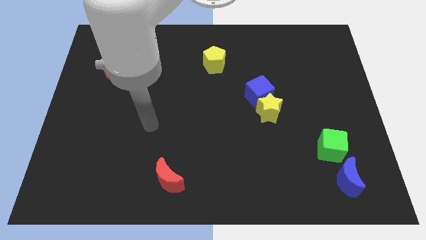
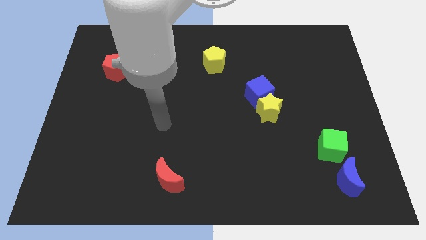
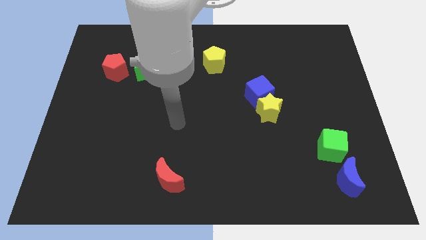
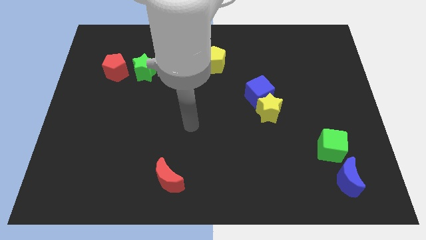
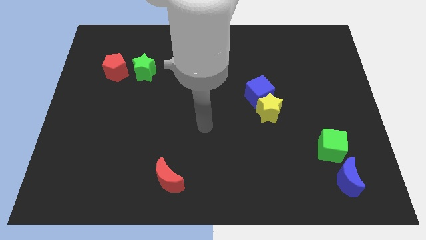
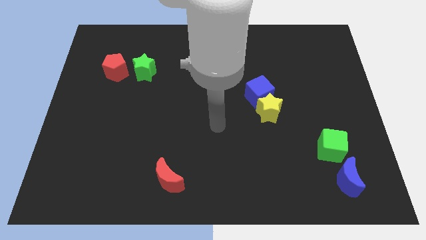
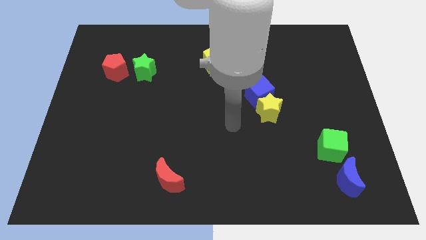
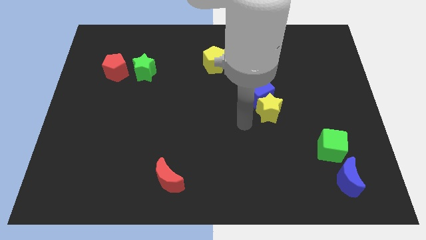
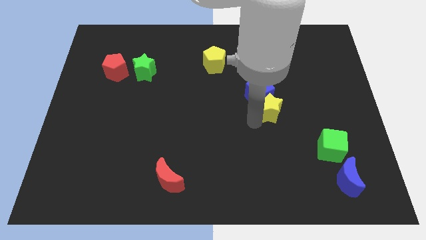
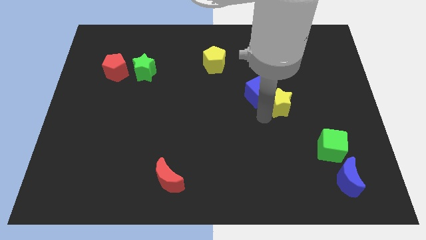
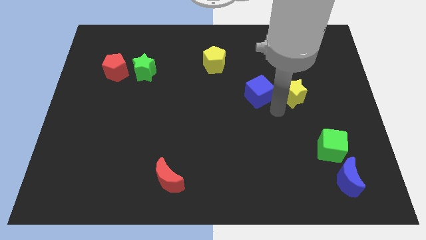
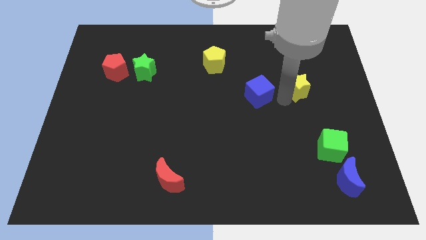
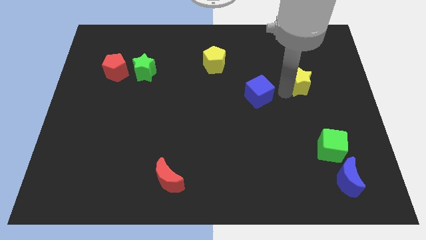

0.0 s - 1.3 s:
move the blue cube away from the yellow star

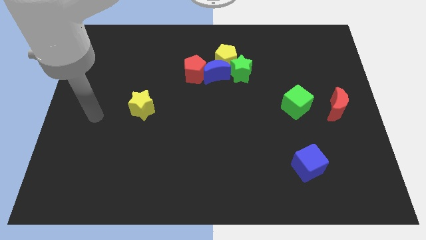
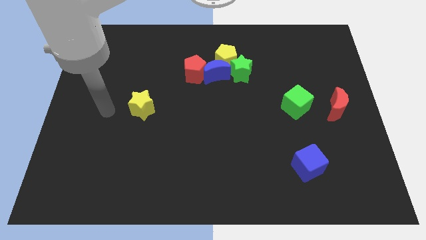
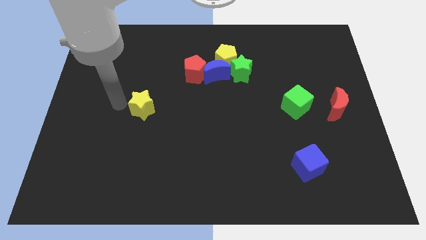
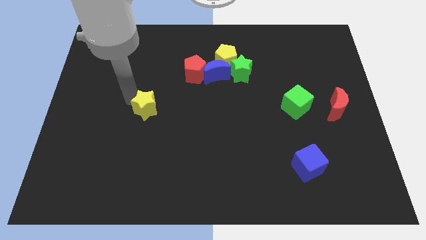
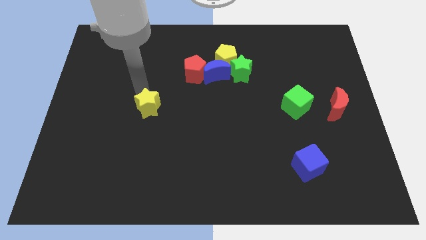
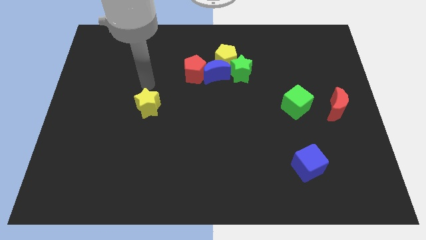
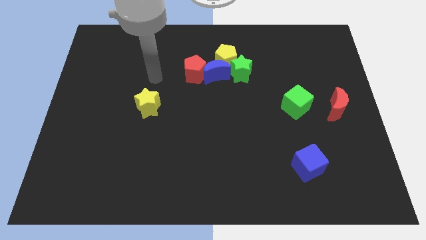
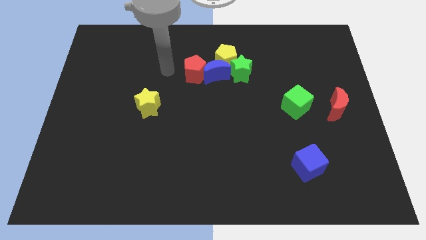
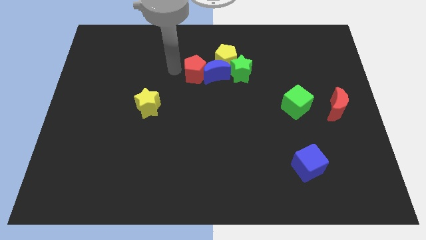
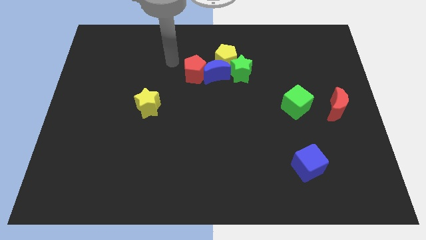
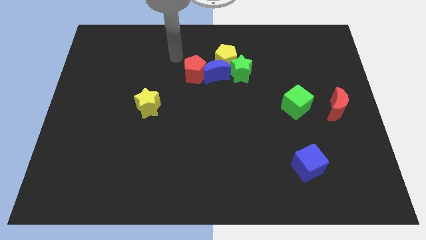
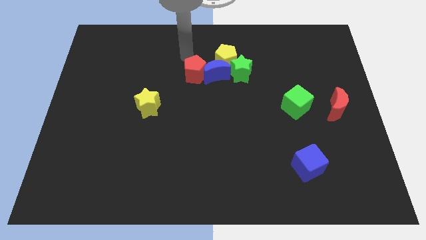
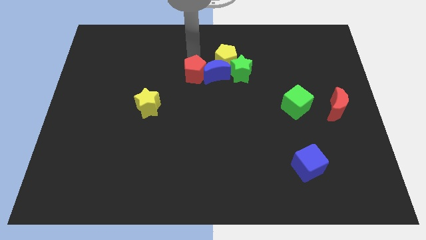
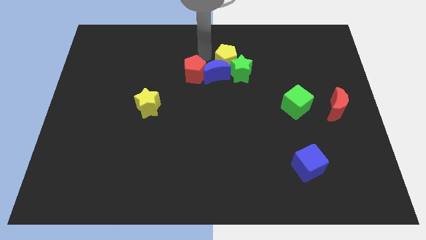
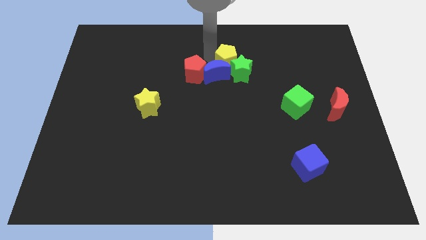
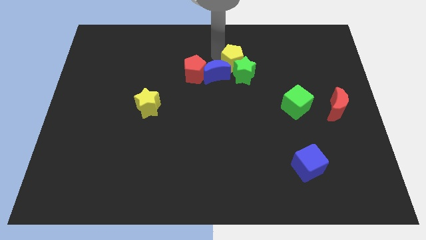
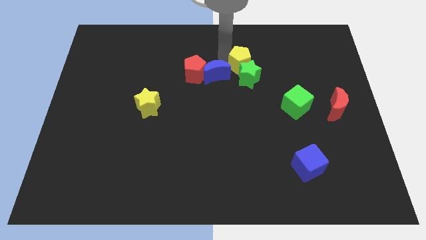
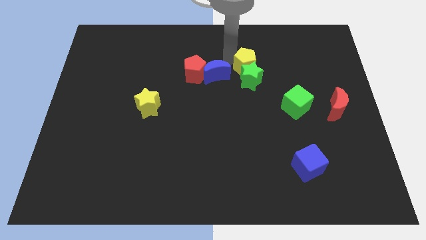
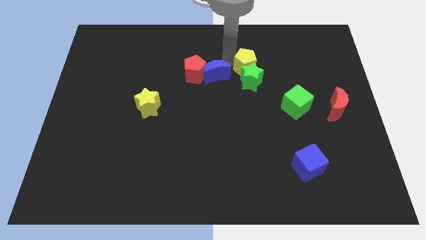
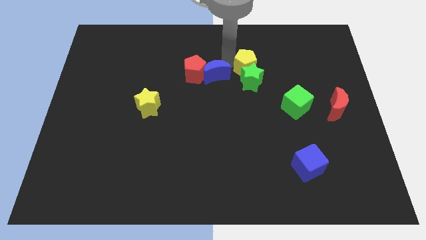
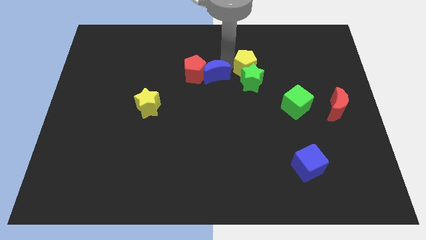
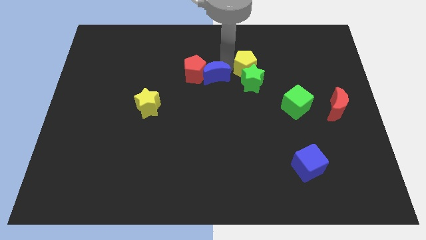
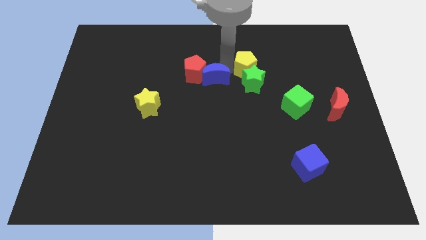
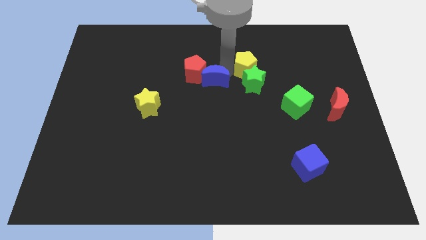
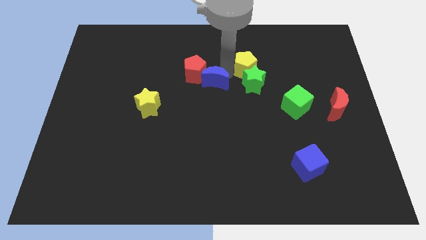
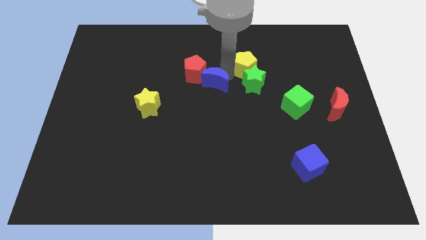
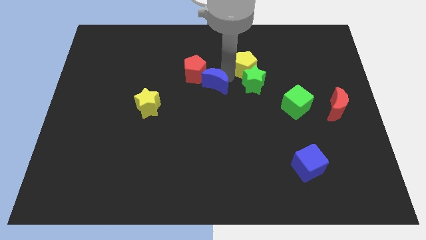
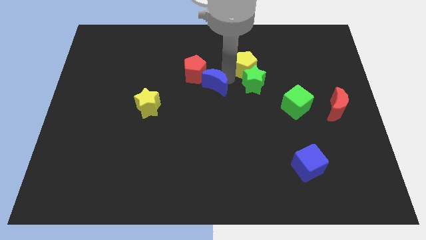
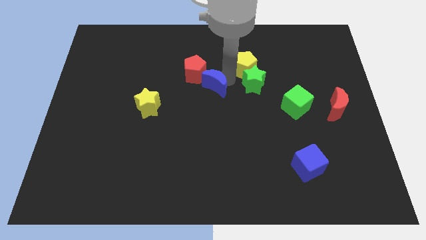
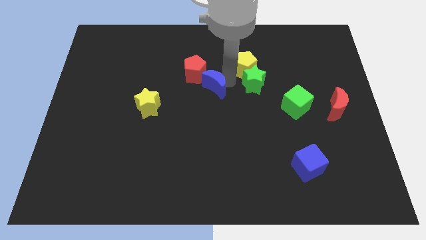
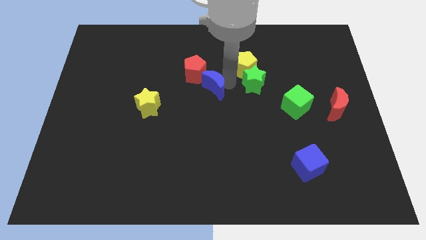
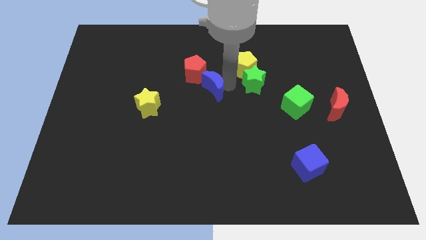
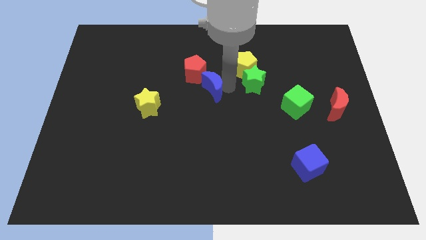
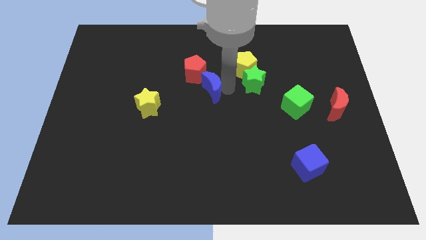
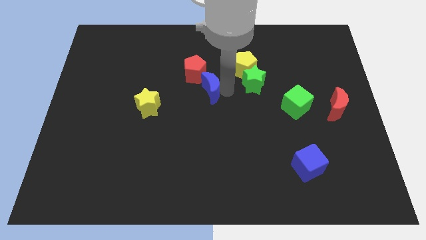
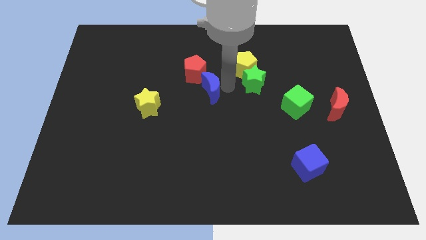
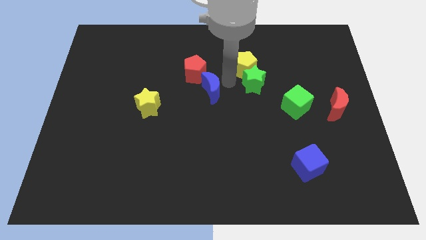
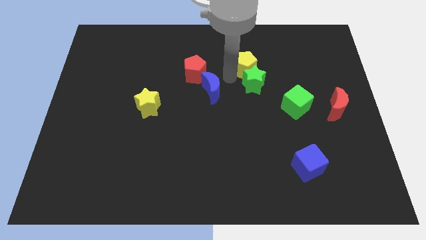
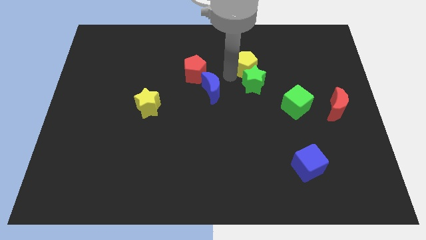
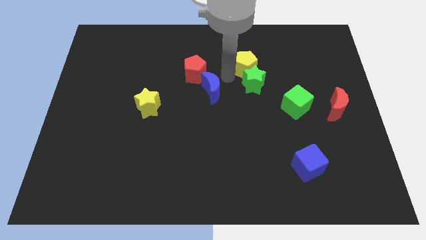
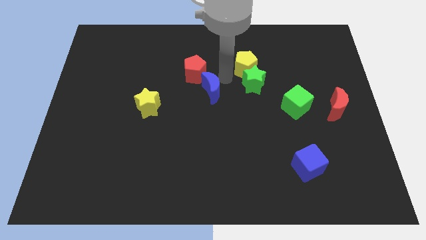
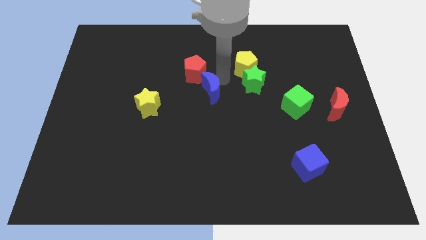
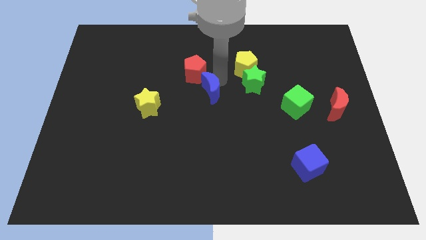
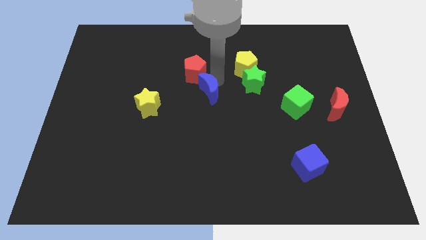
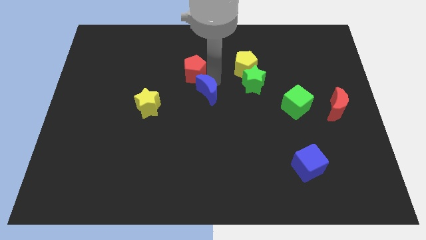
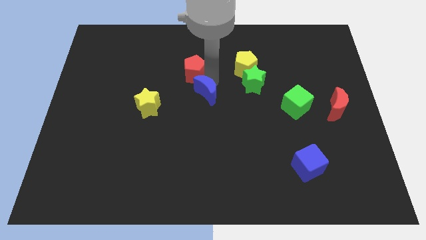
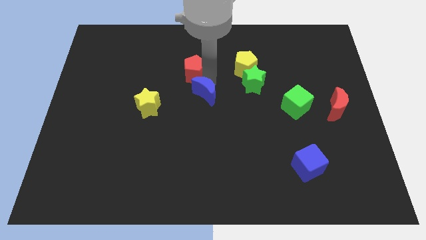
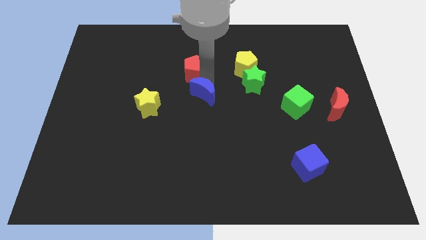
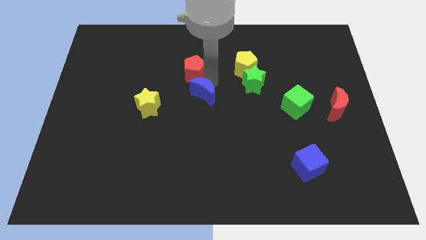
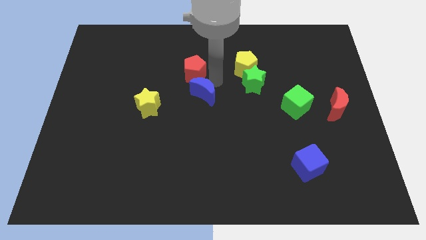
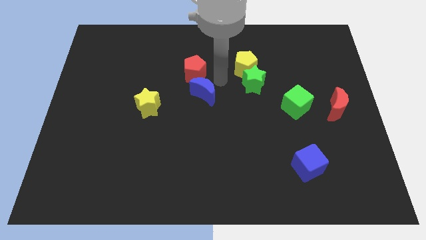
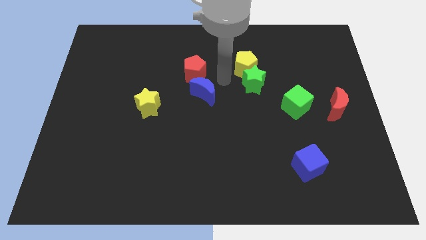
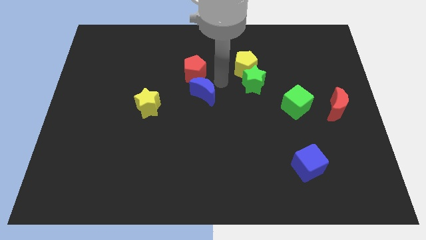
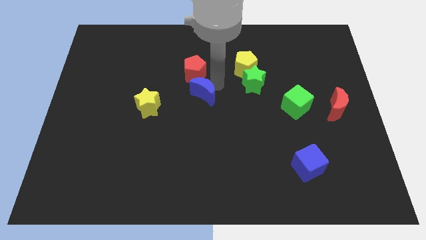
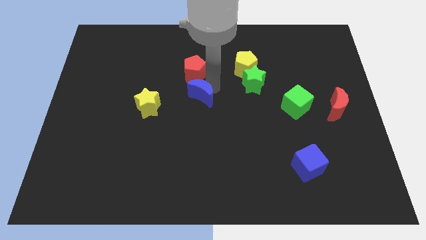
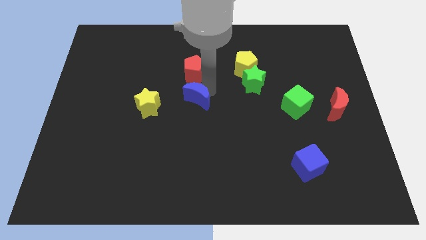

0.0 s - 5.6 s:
pull the blue moon apart from the group of blocks

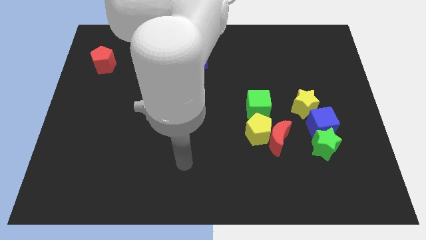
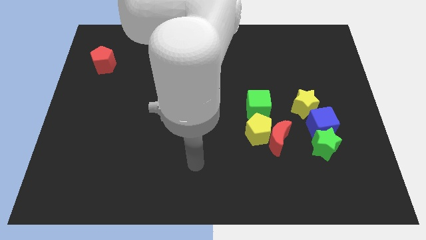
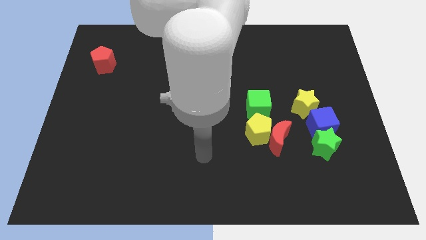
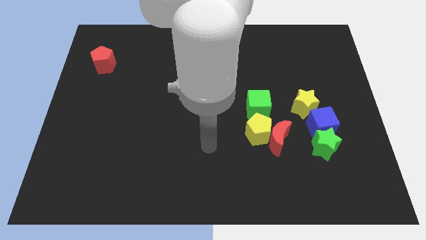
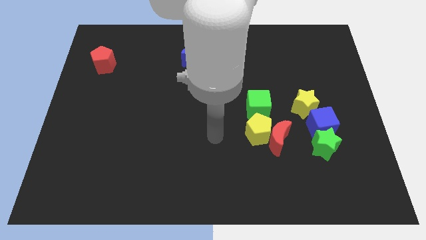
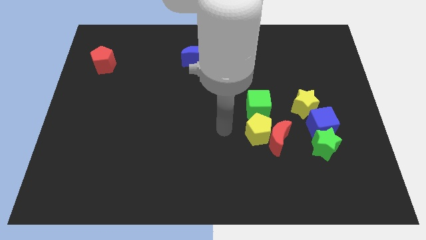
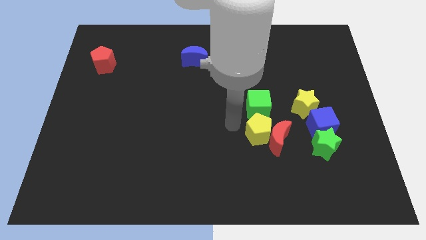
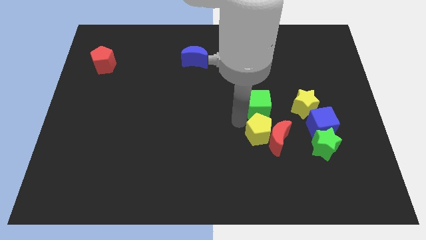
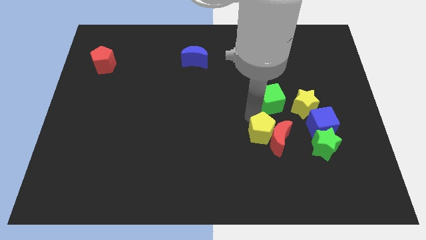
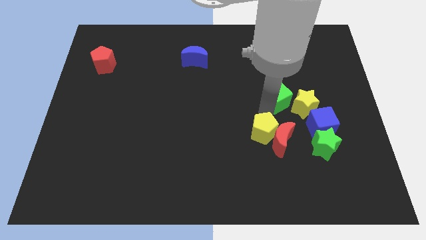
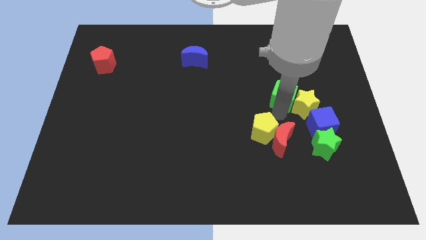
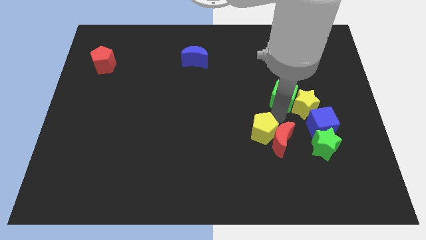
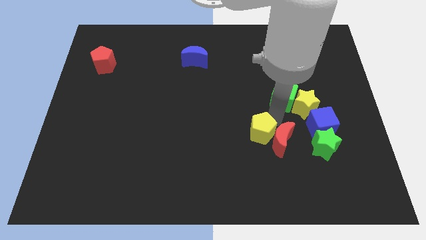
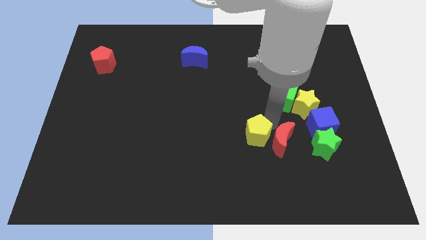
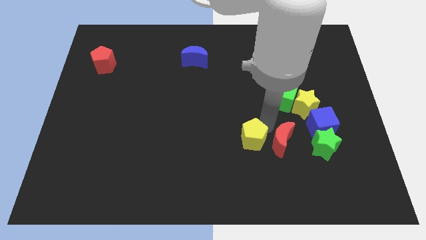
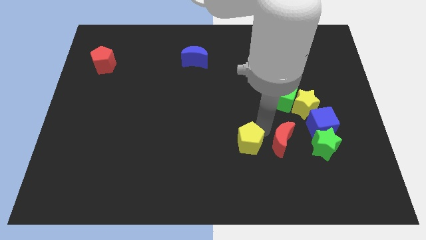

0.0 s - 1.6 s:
pull the yellow pentagon apart from the red moon and green cube

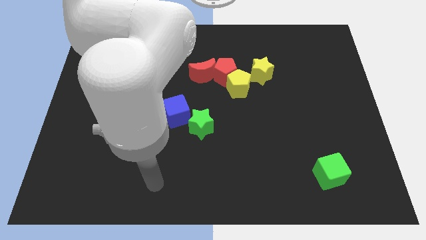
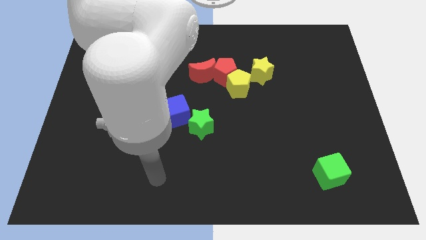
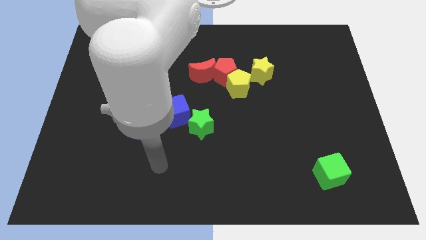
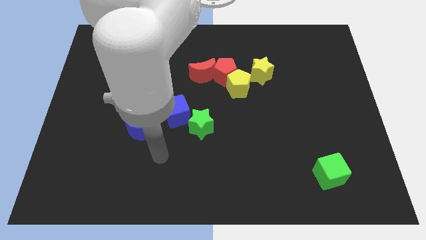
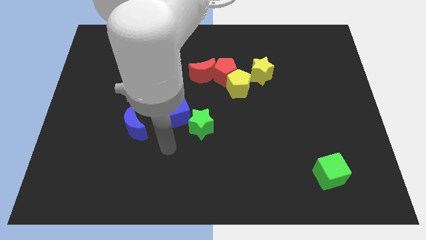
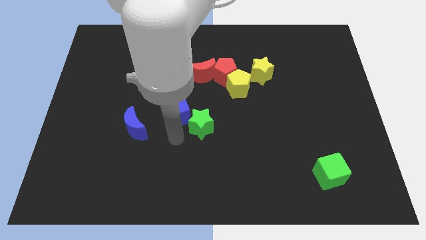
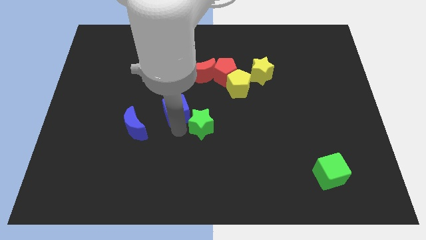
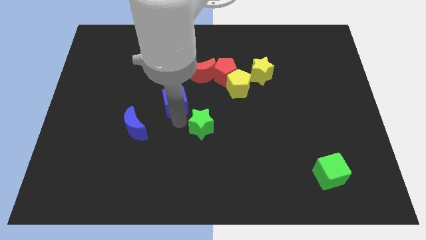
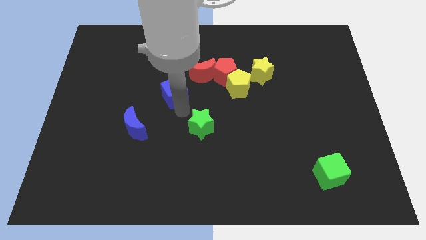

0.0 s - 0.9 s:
separate the green star from the blue cube
